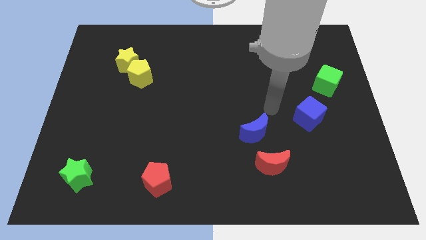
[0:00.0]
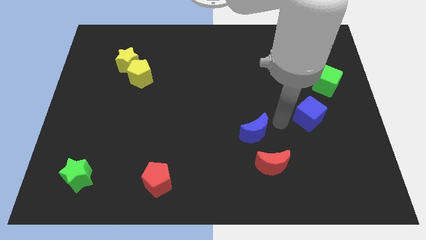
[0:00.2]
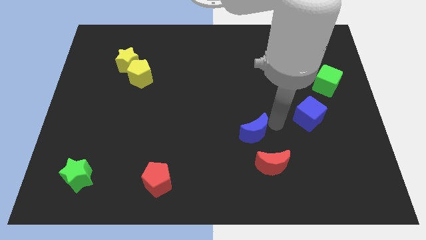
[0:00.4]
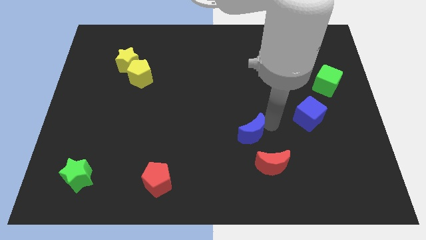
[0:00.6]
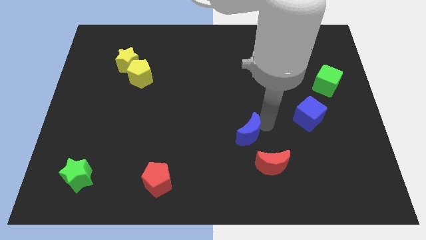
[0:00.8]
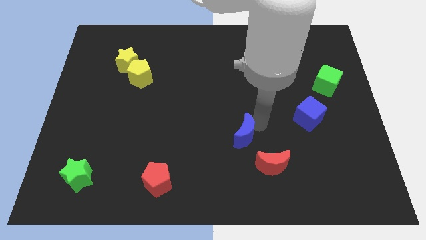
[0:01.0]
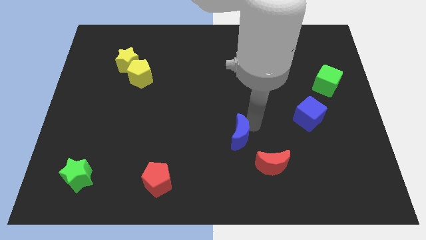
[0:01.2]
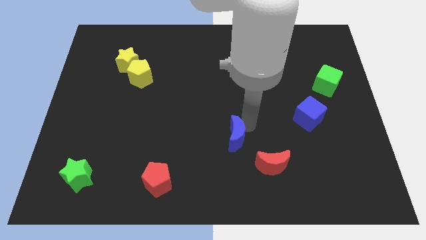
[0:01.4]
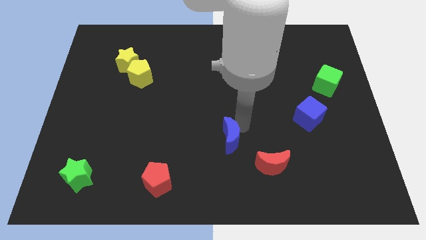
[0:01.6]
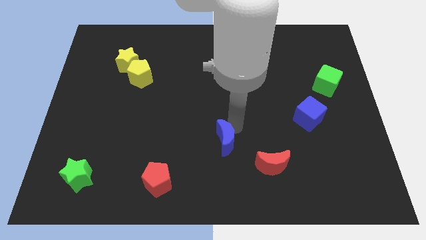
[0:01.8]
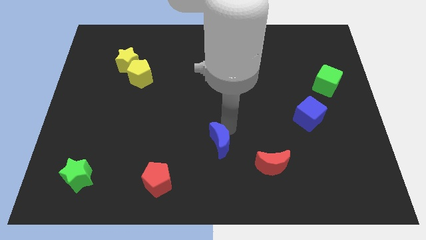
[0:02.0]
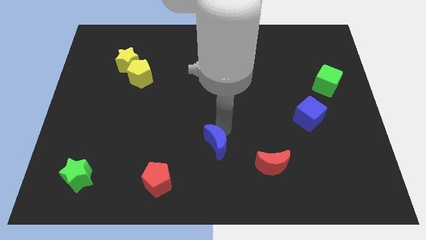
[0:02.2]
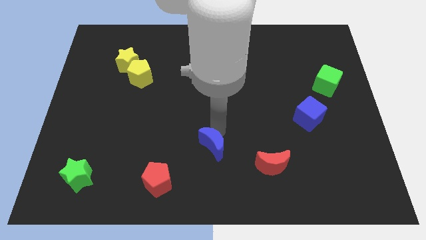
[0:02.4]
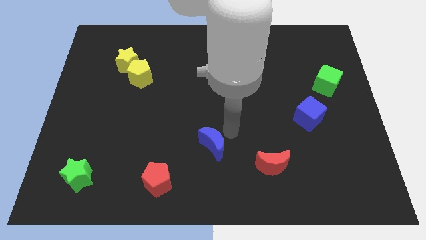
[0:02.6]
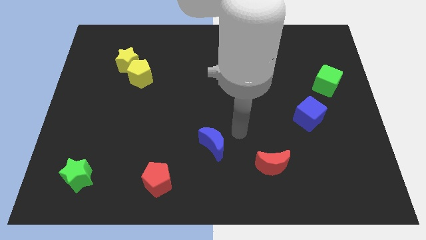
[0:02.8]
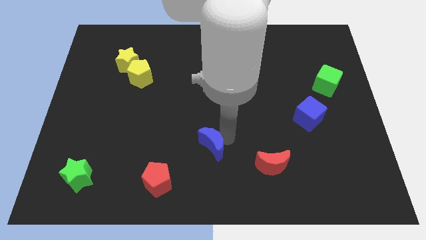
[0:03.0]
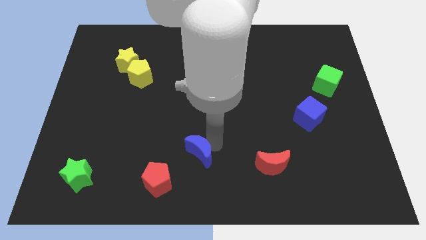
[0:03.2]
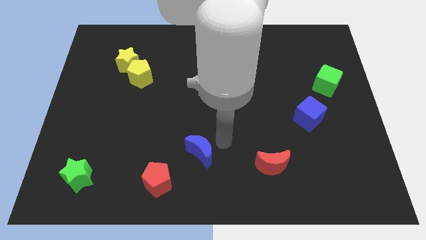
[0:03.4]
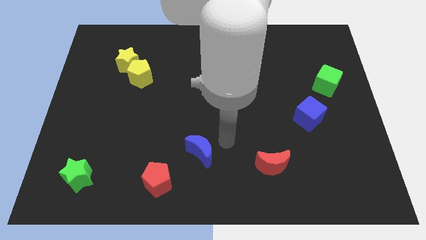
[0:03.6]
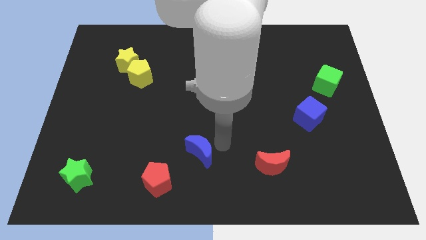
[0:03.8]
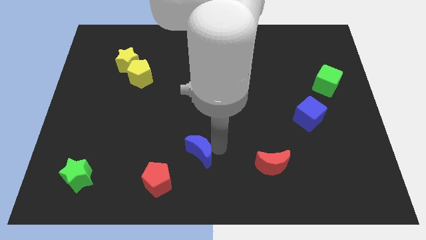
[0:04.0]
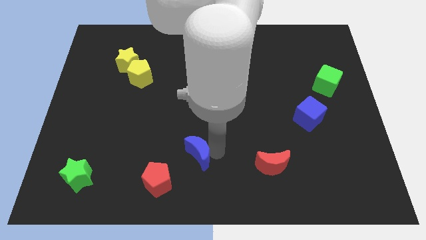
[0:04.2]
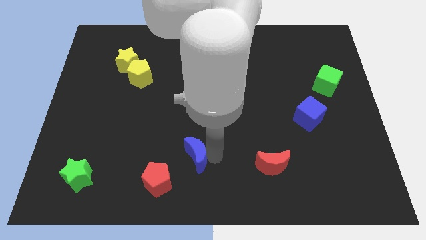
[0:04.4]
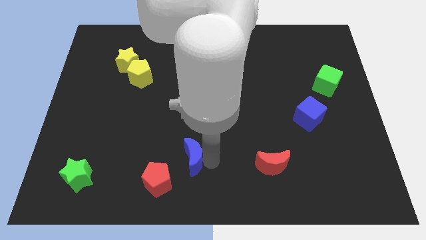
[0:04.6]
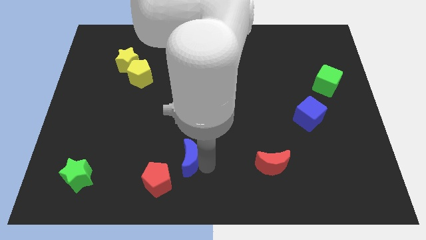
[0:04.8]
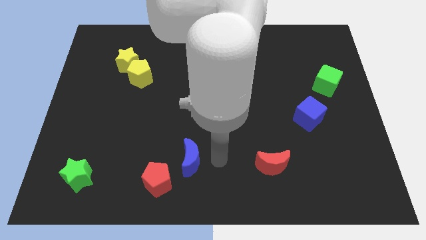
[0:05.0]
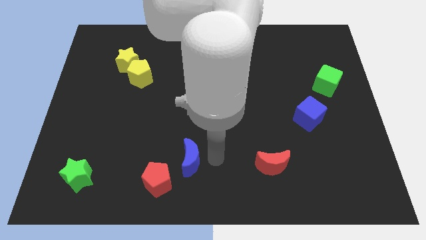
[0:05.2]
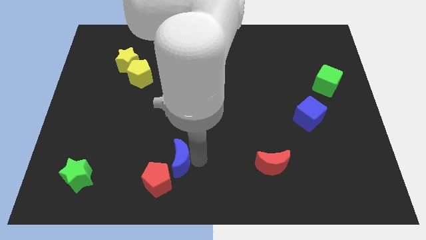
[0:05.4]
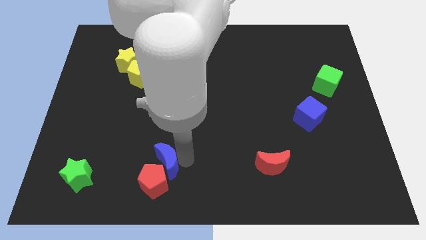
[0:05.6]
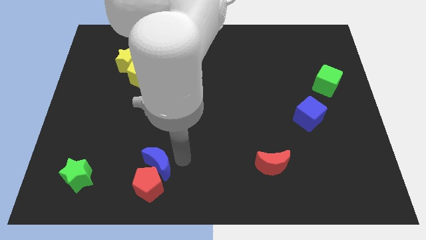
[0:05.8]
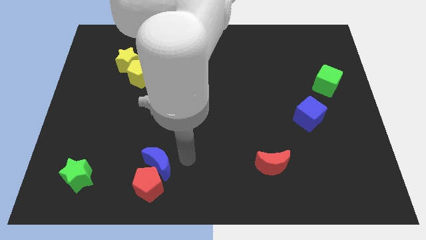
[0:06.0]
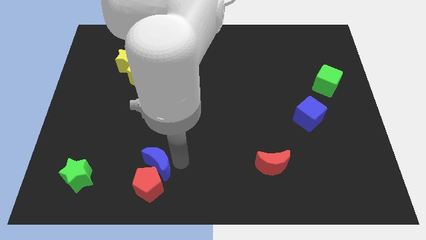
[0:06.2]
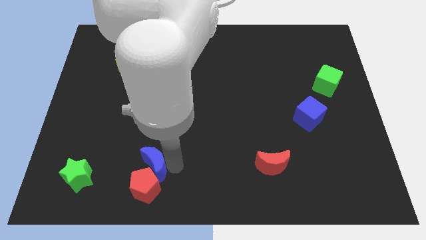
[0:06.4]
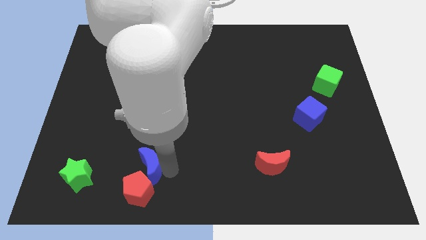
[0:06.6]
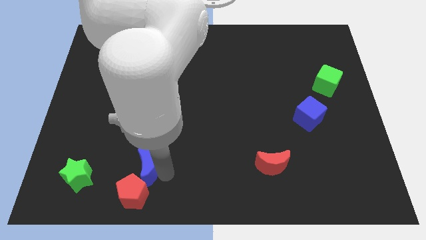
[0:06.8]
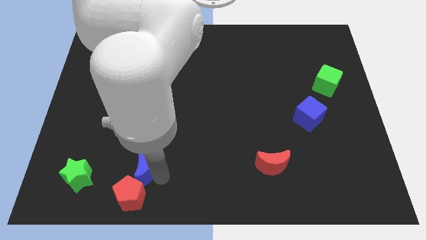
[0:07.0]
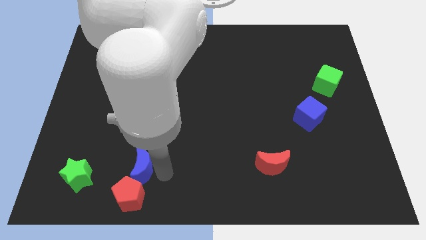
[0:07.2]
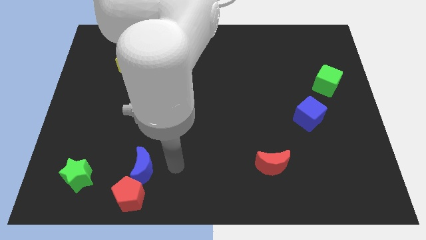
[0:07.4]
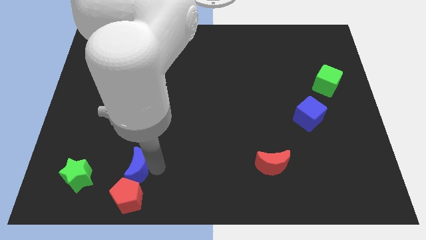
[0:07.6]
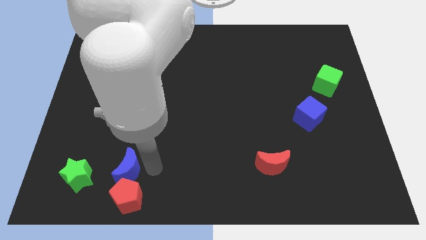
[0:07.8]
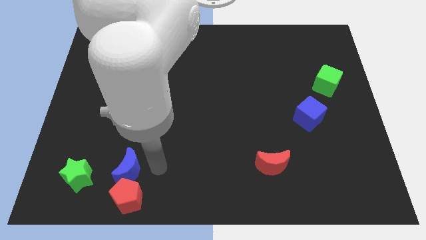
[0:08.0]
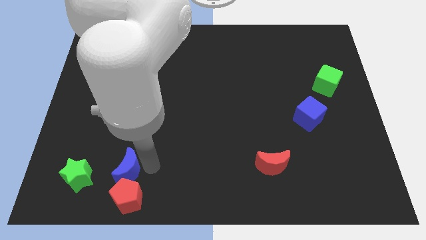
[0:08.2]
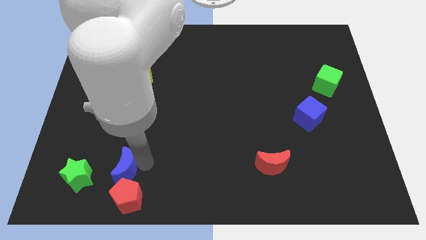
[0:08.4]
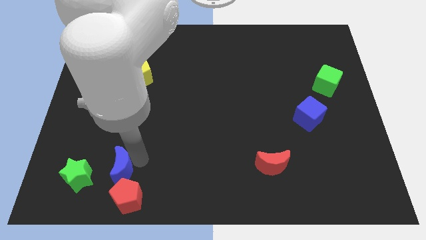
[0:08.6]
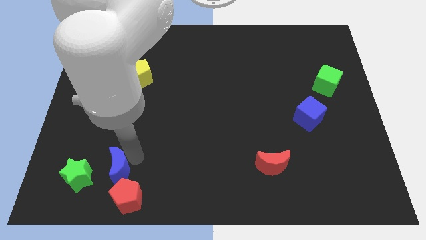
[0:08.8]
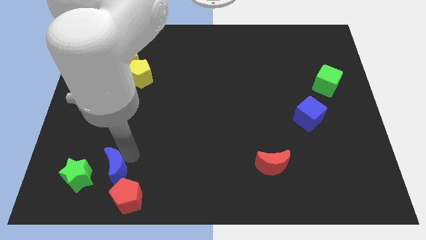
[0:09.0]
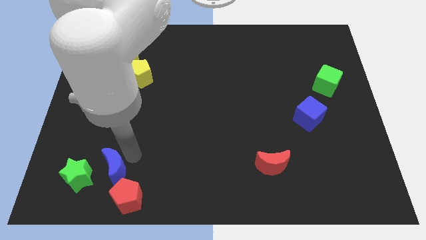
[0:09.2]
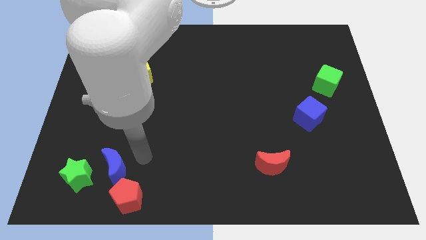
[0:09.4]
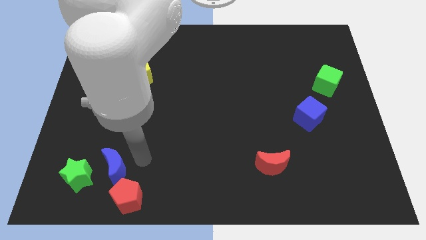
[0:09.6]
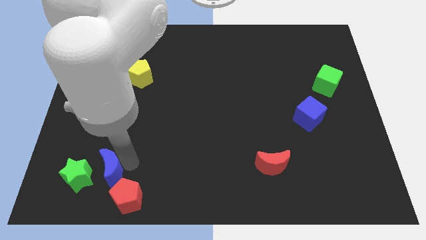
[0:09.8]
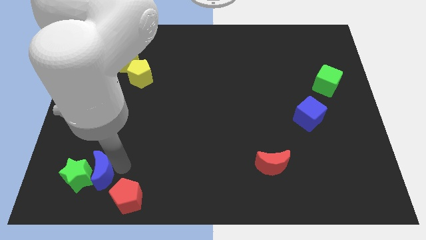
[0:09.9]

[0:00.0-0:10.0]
slide the blue moon towards the green star

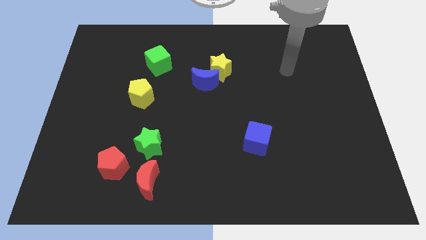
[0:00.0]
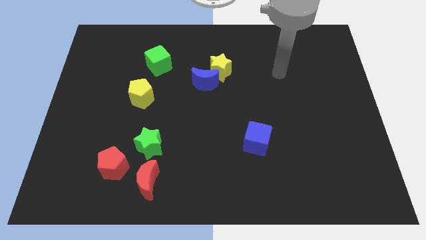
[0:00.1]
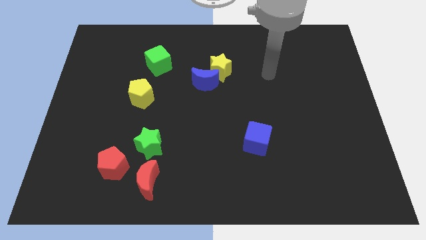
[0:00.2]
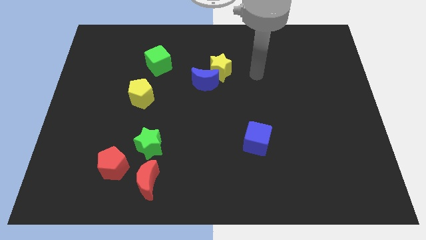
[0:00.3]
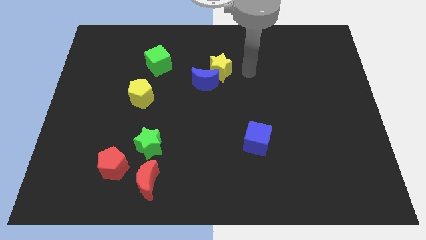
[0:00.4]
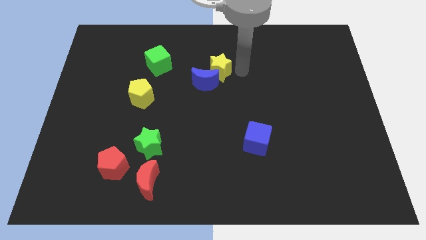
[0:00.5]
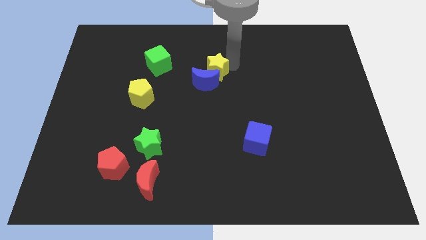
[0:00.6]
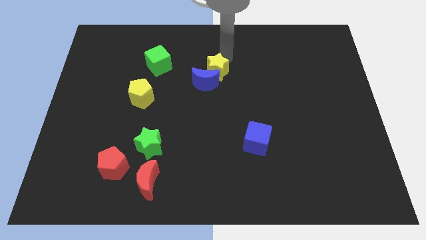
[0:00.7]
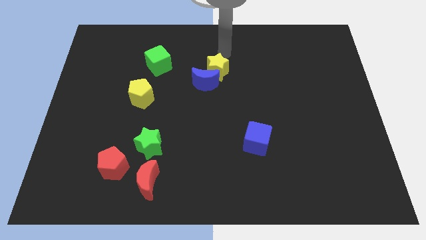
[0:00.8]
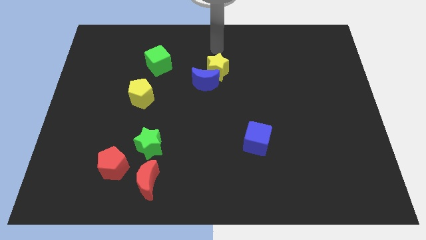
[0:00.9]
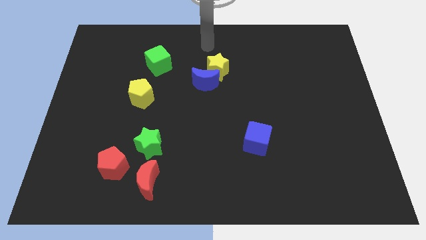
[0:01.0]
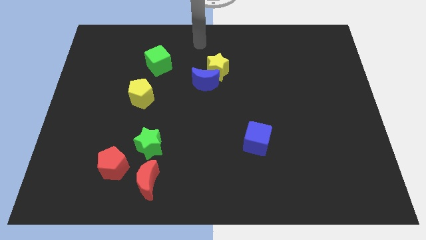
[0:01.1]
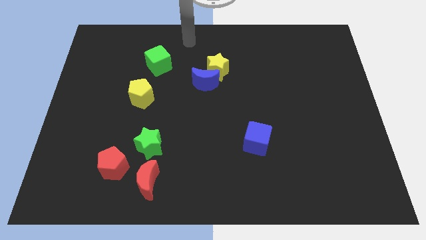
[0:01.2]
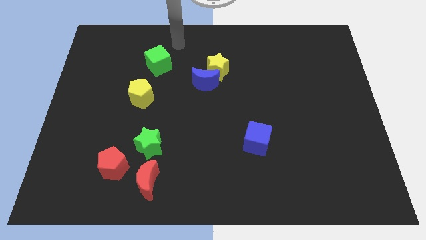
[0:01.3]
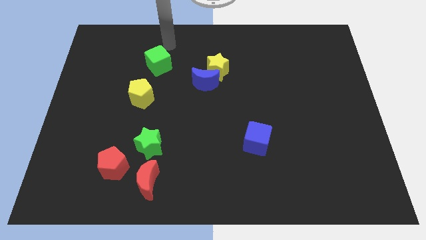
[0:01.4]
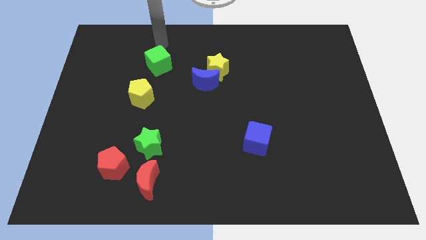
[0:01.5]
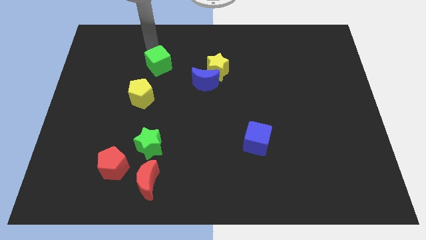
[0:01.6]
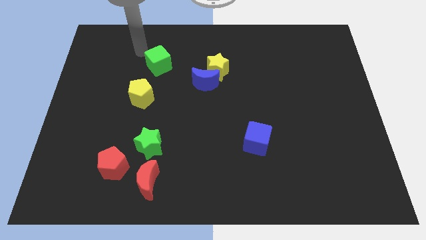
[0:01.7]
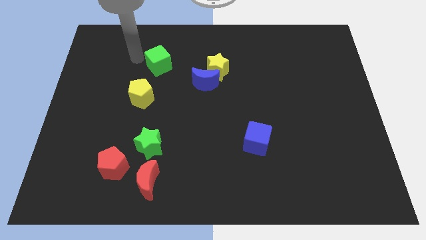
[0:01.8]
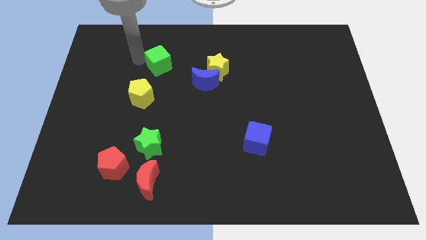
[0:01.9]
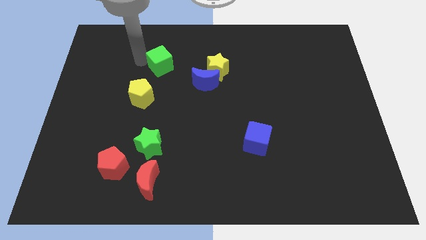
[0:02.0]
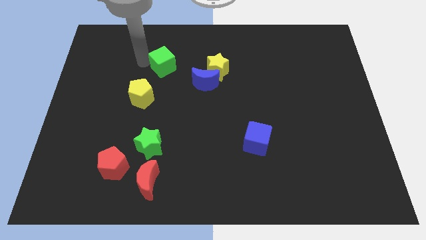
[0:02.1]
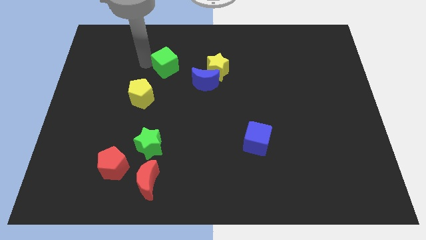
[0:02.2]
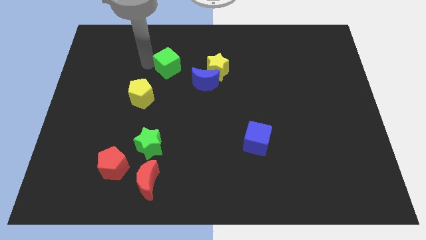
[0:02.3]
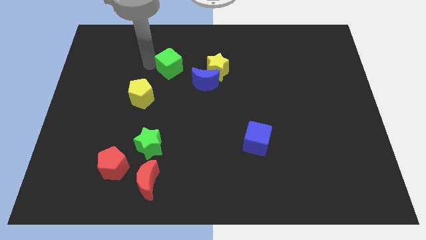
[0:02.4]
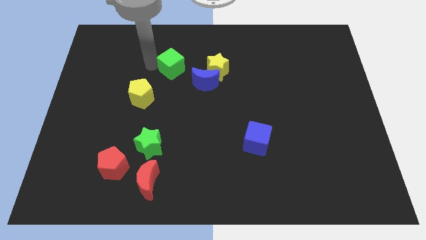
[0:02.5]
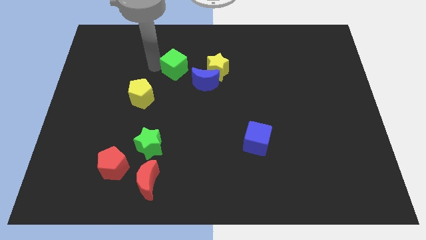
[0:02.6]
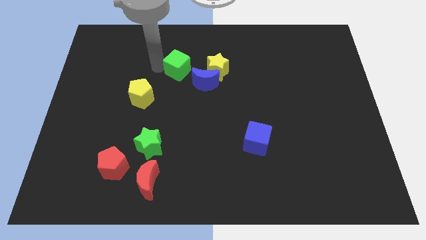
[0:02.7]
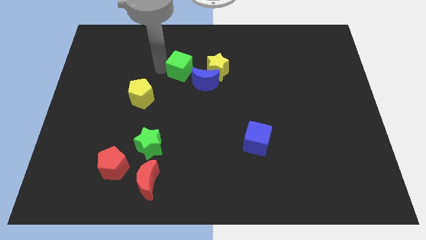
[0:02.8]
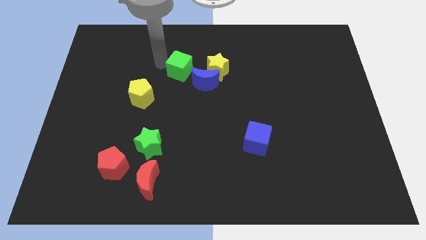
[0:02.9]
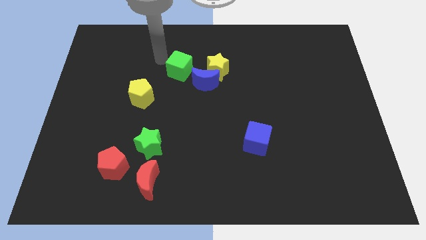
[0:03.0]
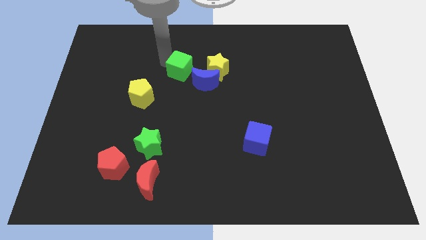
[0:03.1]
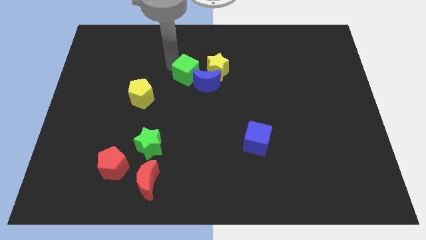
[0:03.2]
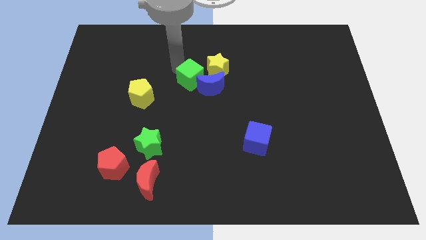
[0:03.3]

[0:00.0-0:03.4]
slide the green cube towards the blue moon
